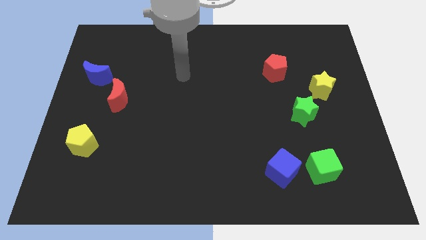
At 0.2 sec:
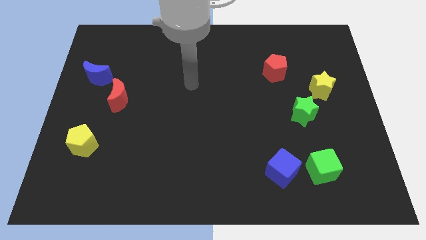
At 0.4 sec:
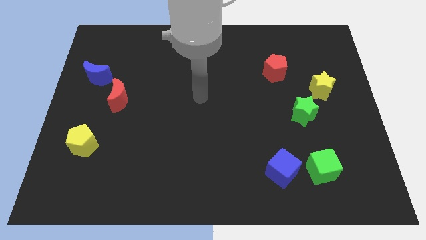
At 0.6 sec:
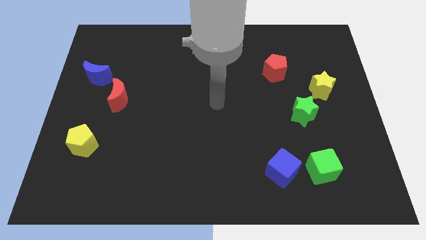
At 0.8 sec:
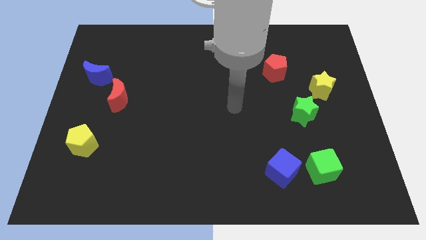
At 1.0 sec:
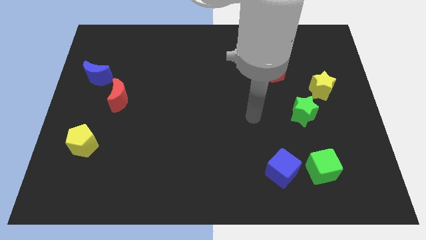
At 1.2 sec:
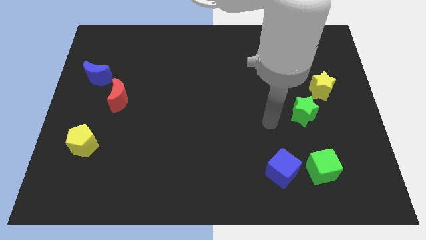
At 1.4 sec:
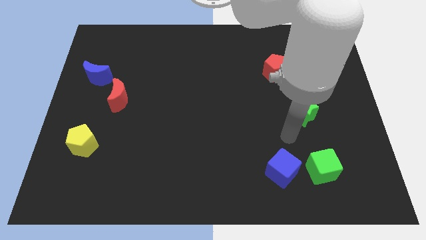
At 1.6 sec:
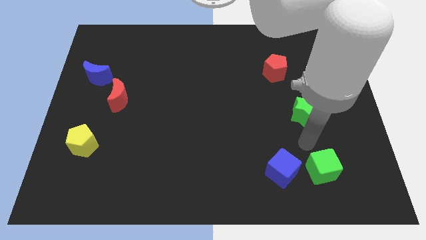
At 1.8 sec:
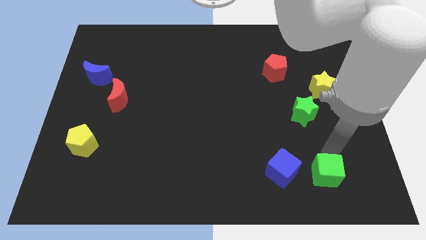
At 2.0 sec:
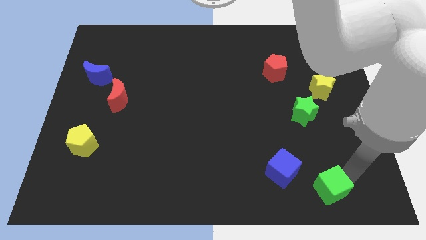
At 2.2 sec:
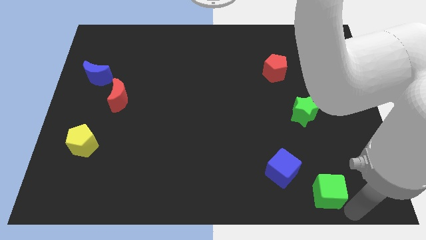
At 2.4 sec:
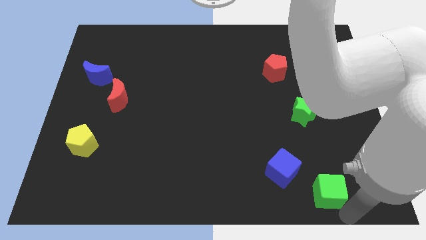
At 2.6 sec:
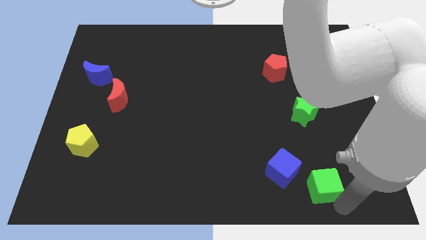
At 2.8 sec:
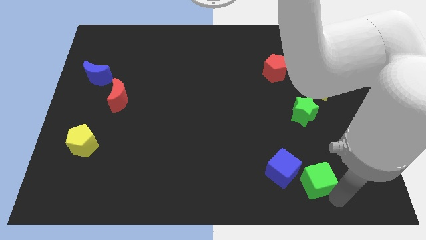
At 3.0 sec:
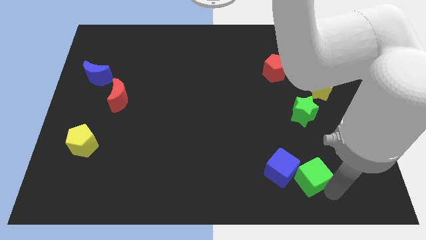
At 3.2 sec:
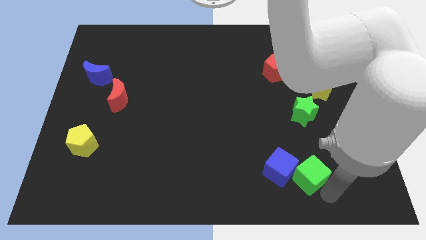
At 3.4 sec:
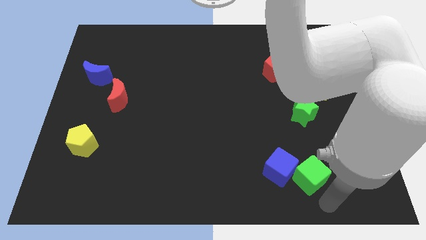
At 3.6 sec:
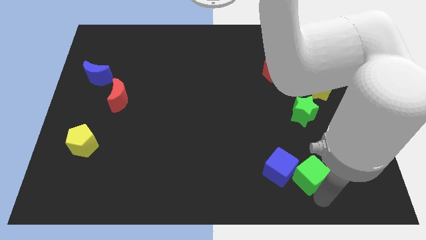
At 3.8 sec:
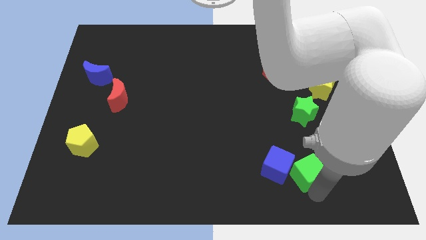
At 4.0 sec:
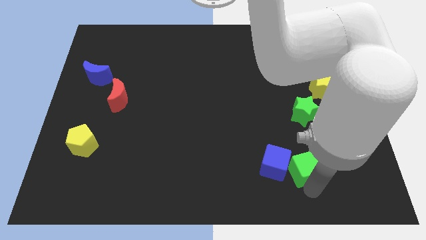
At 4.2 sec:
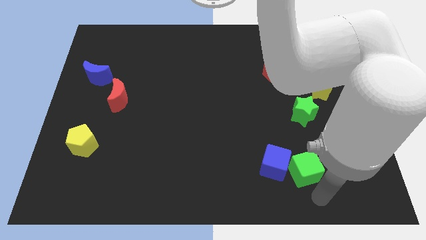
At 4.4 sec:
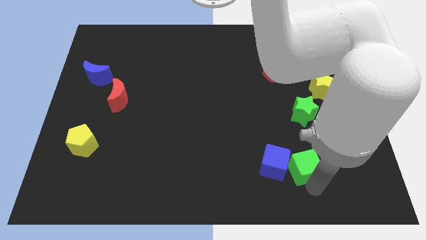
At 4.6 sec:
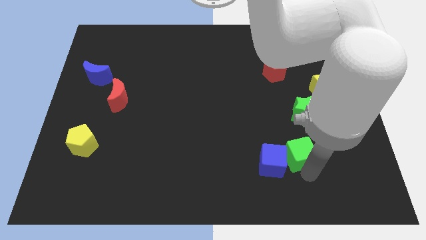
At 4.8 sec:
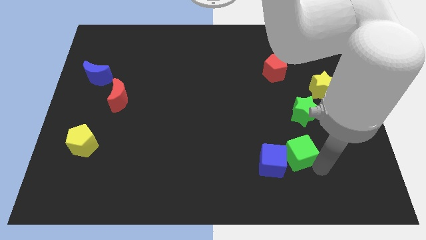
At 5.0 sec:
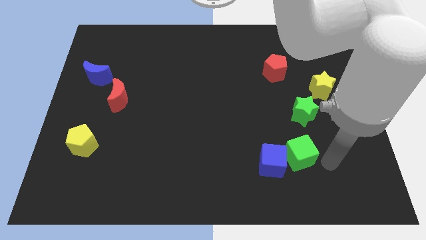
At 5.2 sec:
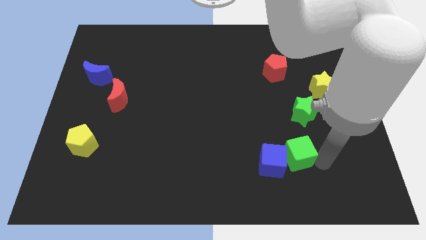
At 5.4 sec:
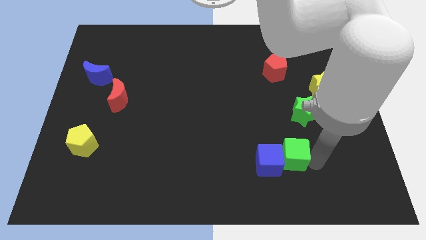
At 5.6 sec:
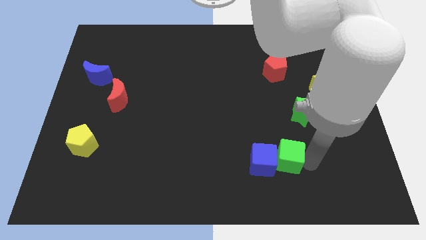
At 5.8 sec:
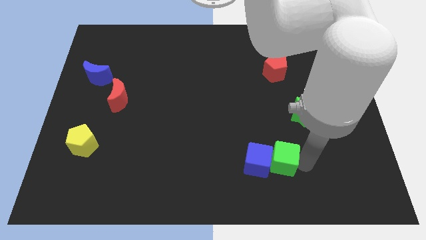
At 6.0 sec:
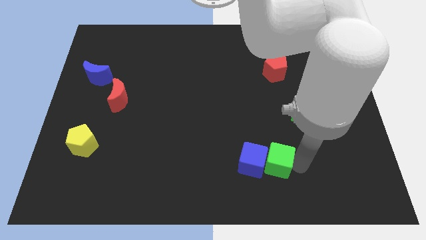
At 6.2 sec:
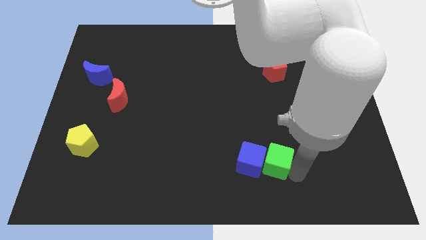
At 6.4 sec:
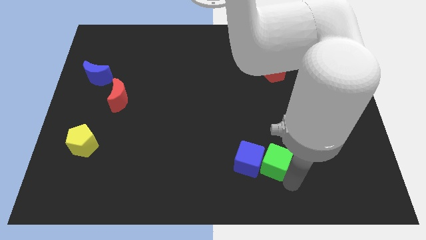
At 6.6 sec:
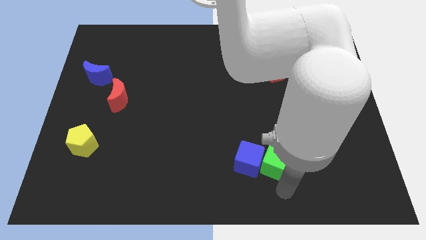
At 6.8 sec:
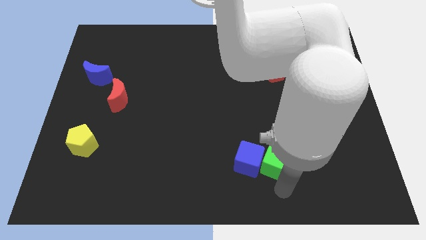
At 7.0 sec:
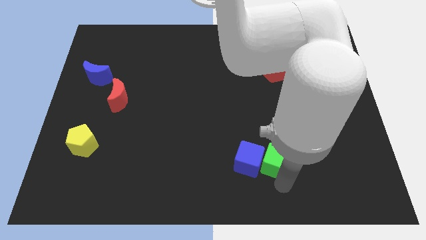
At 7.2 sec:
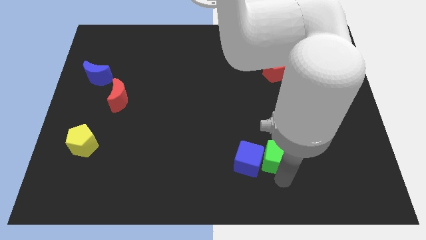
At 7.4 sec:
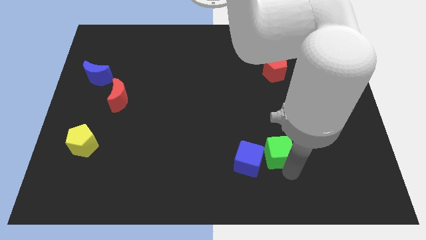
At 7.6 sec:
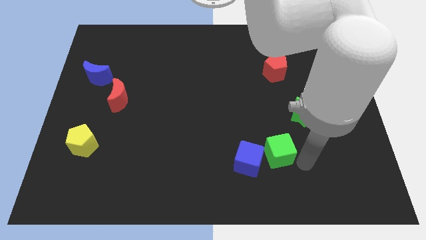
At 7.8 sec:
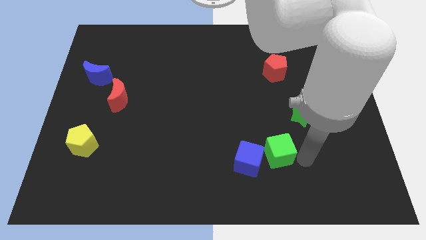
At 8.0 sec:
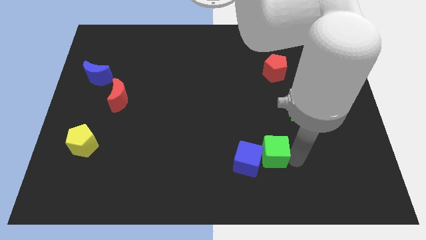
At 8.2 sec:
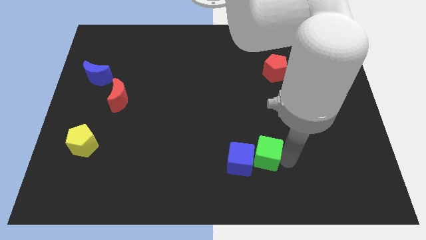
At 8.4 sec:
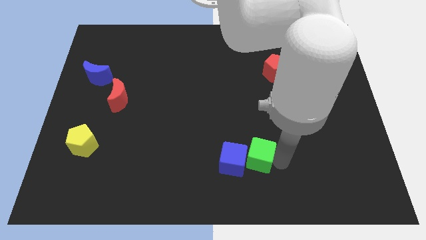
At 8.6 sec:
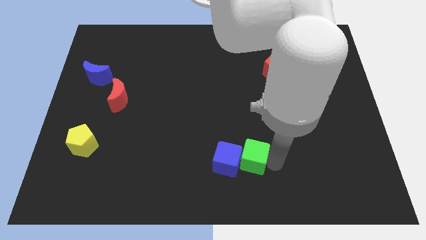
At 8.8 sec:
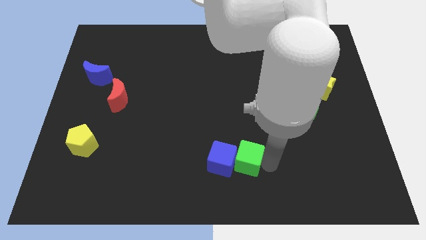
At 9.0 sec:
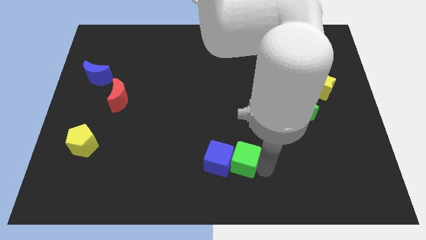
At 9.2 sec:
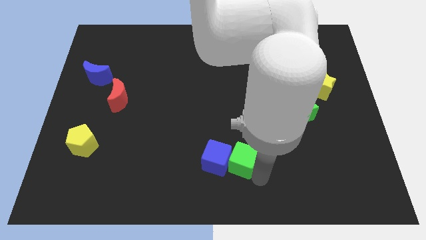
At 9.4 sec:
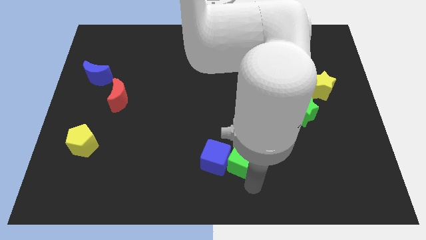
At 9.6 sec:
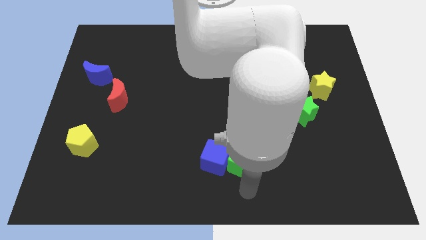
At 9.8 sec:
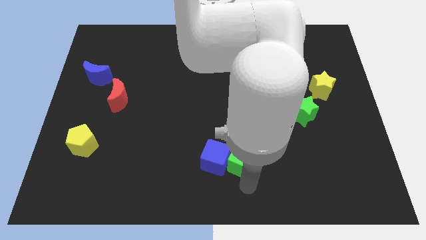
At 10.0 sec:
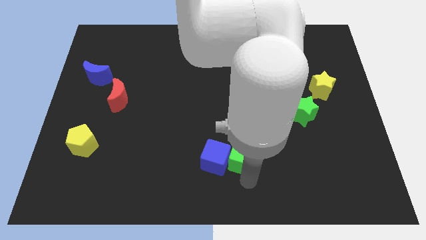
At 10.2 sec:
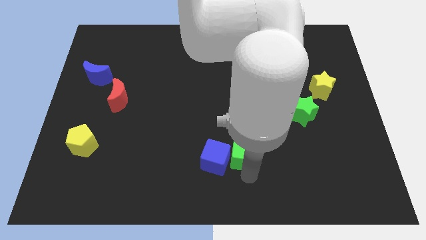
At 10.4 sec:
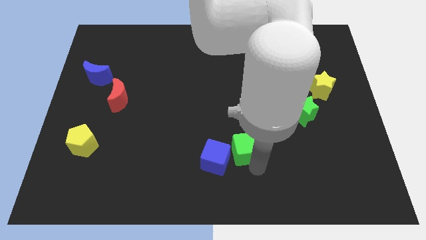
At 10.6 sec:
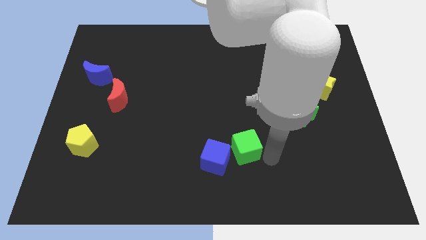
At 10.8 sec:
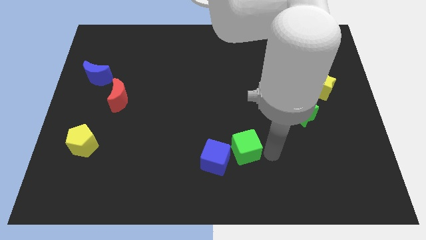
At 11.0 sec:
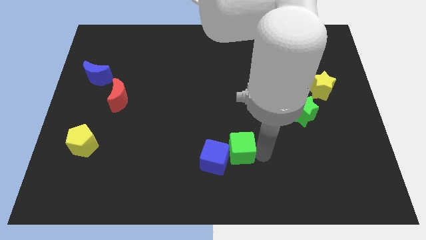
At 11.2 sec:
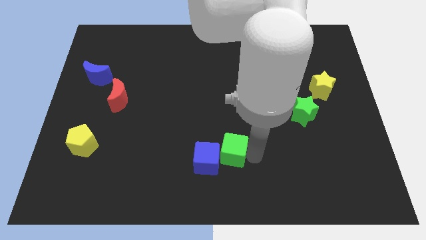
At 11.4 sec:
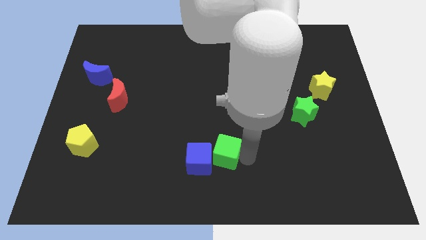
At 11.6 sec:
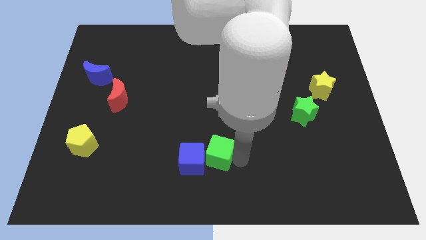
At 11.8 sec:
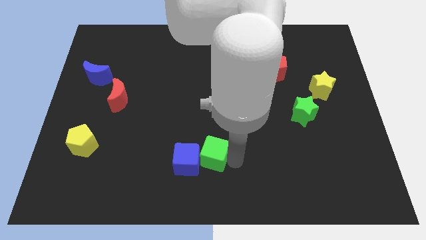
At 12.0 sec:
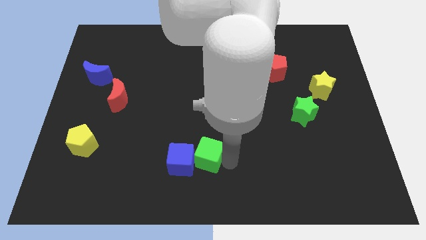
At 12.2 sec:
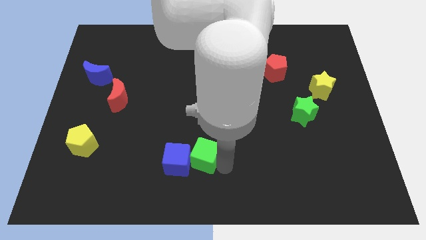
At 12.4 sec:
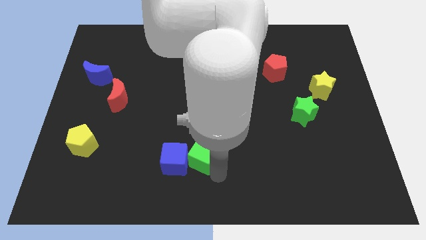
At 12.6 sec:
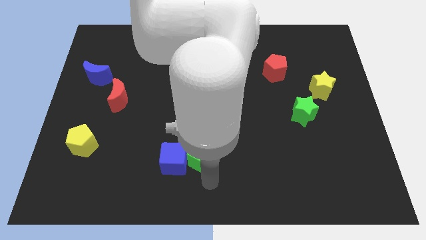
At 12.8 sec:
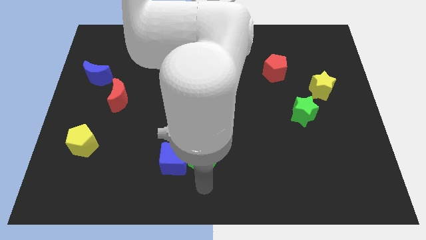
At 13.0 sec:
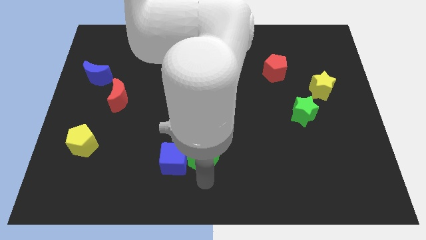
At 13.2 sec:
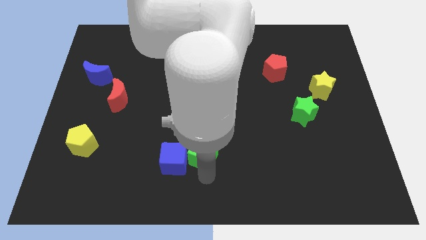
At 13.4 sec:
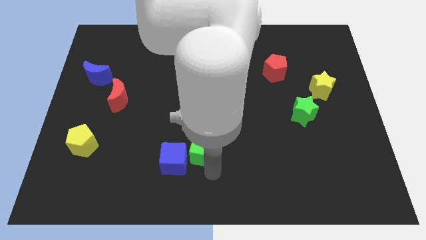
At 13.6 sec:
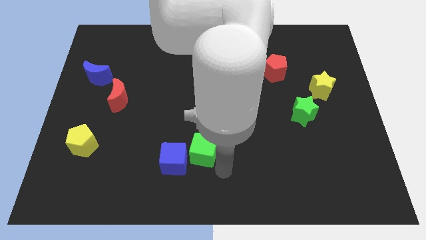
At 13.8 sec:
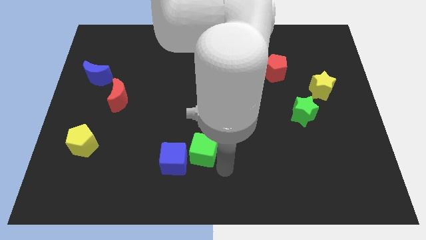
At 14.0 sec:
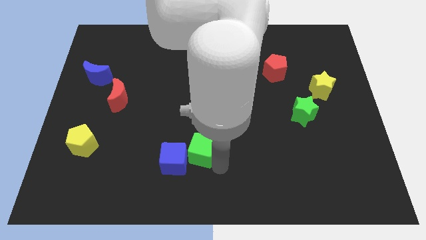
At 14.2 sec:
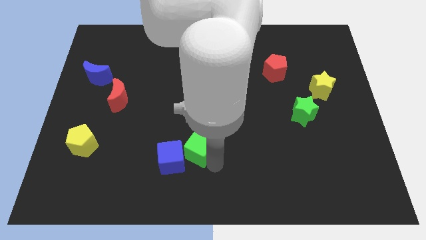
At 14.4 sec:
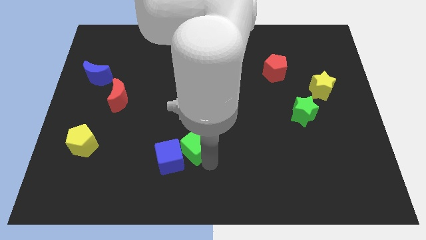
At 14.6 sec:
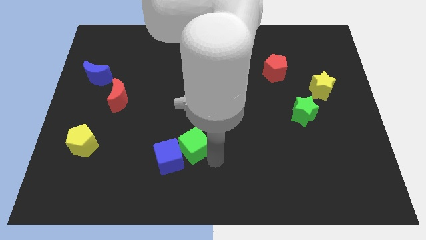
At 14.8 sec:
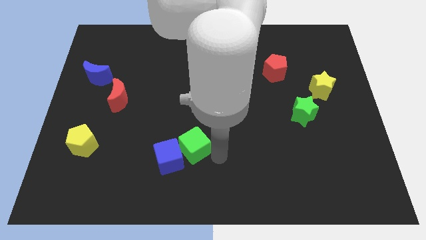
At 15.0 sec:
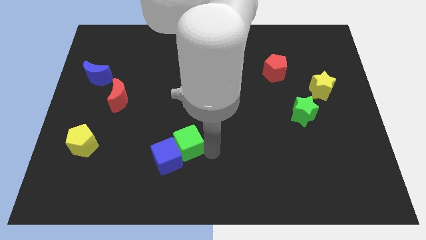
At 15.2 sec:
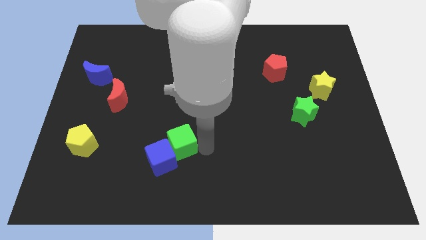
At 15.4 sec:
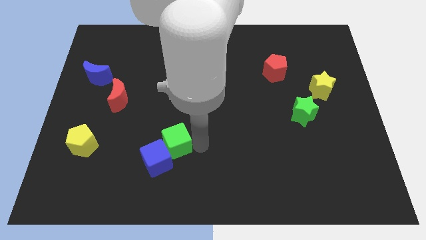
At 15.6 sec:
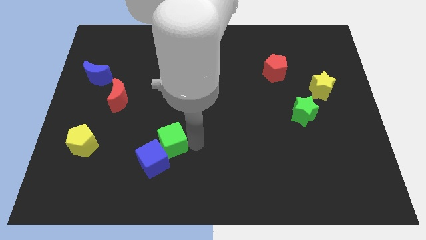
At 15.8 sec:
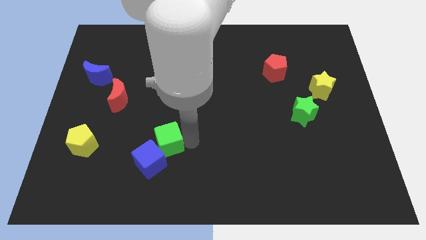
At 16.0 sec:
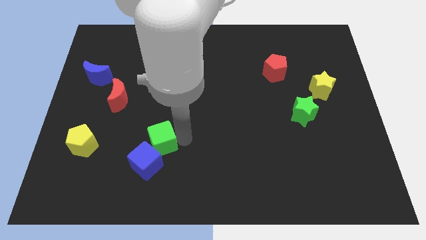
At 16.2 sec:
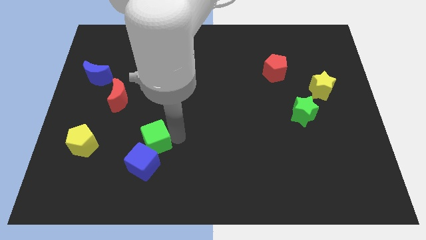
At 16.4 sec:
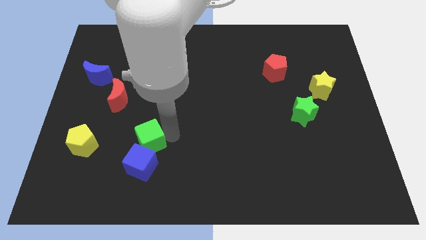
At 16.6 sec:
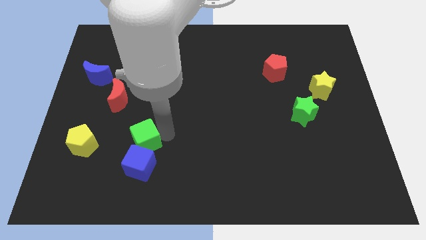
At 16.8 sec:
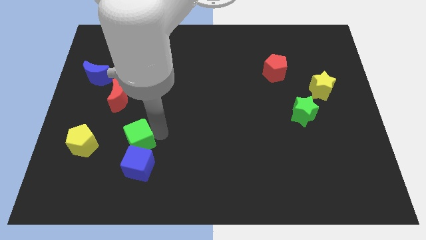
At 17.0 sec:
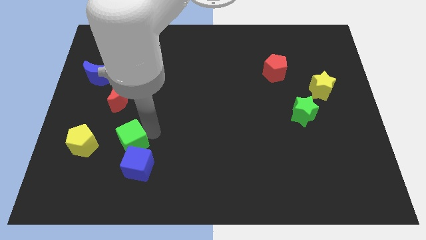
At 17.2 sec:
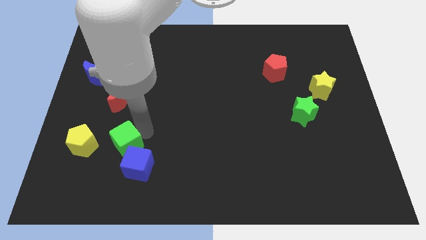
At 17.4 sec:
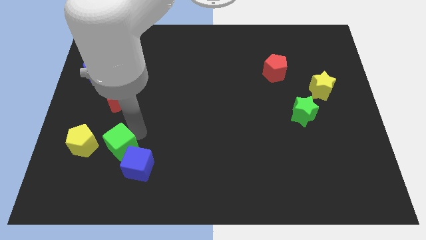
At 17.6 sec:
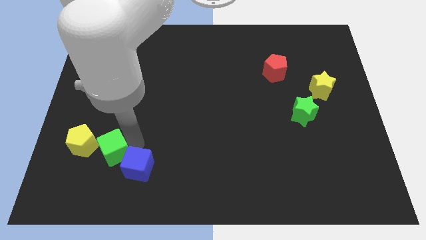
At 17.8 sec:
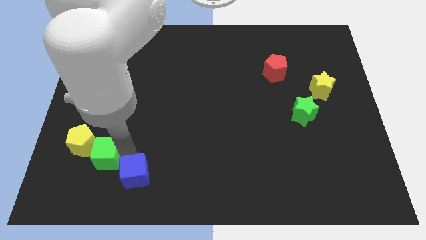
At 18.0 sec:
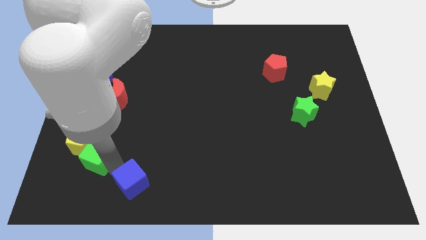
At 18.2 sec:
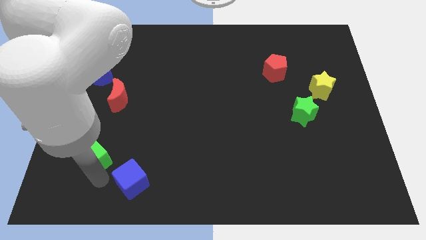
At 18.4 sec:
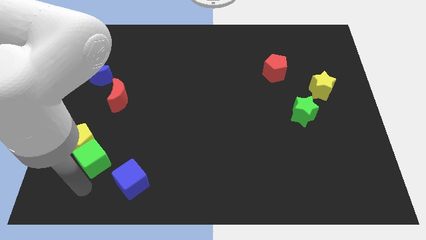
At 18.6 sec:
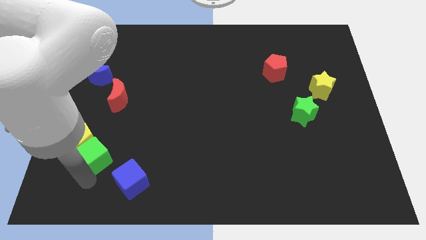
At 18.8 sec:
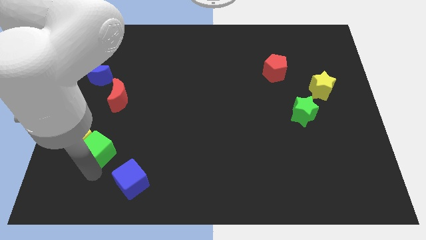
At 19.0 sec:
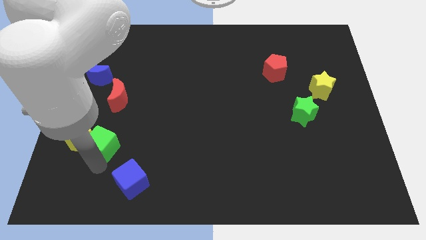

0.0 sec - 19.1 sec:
push the green cube diagonally up and to the right of the yellow pentagon
